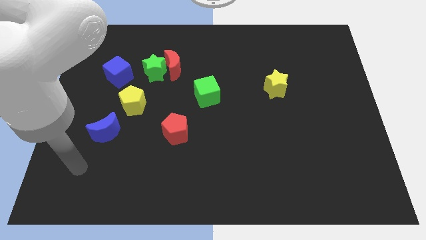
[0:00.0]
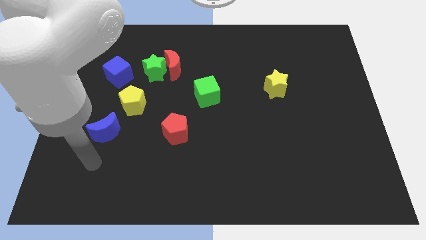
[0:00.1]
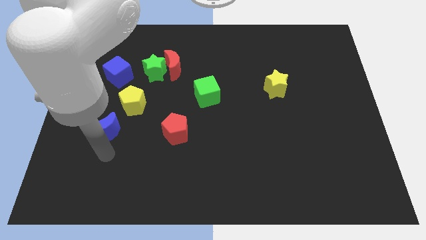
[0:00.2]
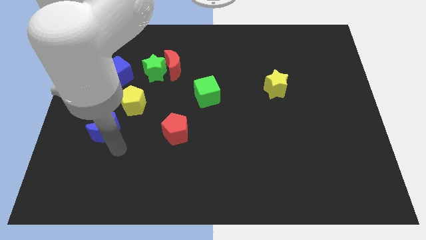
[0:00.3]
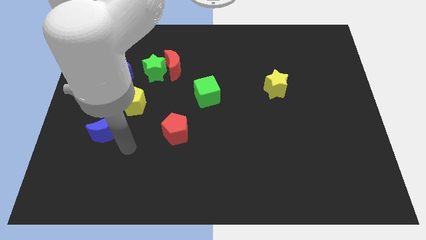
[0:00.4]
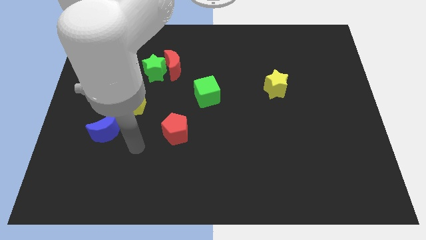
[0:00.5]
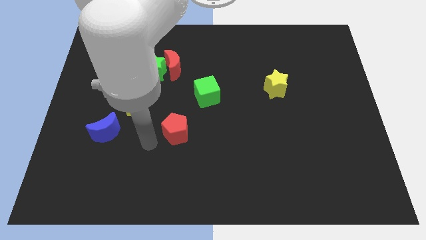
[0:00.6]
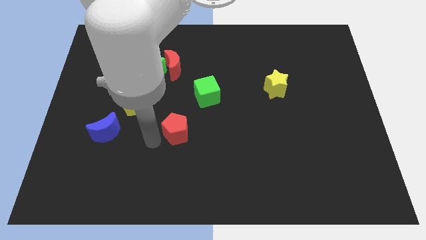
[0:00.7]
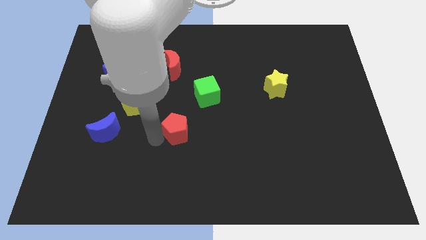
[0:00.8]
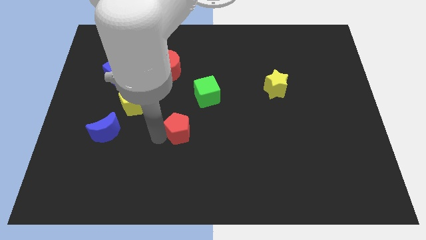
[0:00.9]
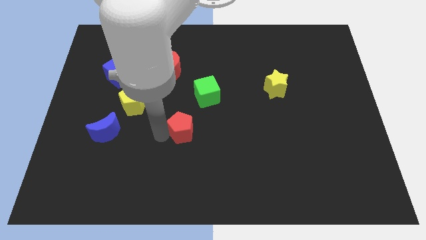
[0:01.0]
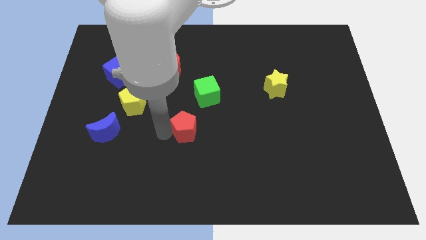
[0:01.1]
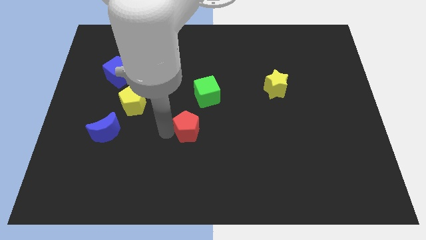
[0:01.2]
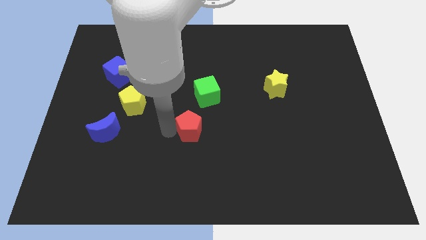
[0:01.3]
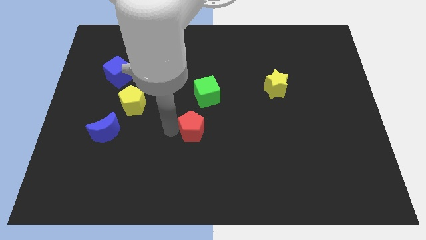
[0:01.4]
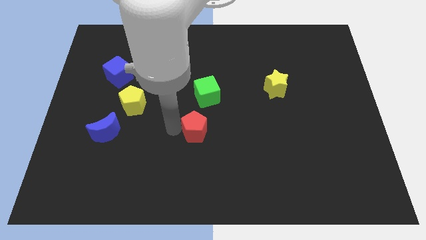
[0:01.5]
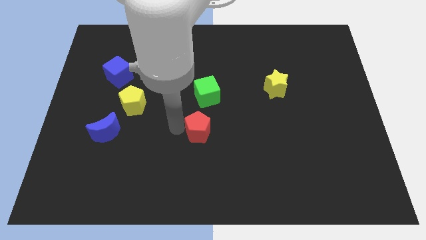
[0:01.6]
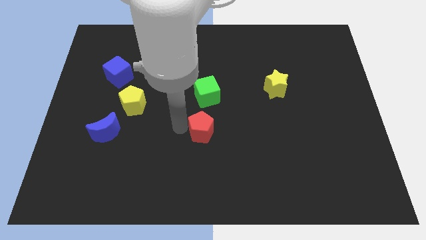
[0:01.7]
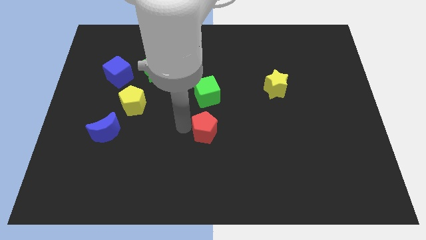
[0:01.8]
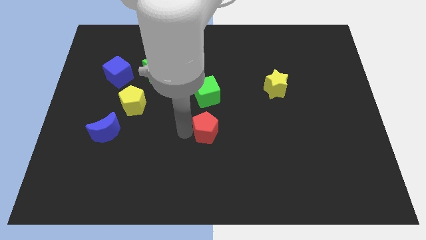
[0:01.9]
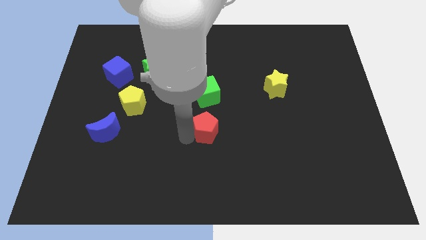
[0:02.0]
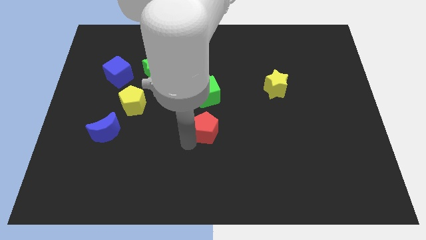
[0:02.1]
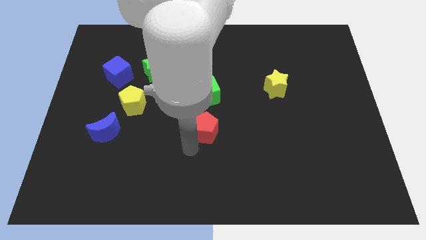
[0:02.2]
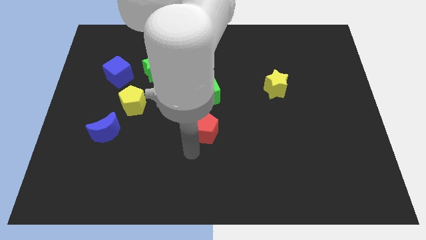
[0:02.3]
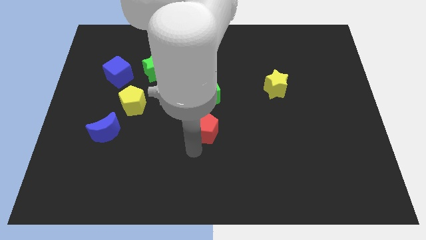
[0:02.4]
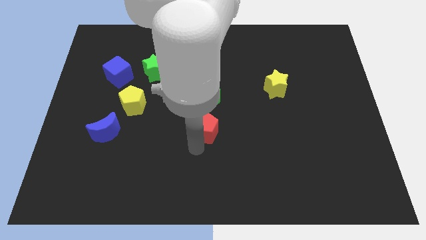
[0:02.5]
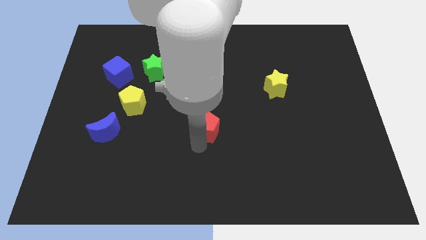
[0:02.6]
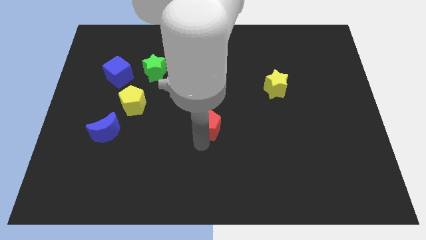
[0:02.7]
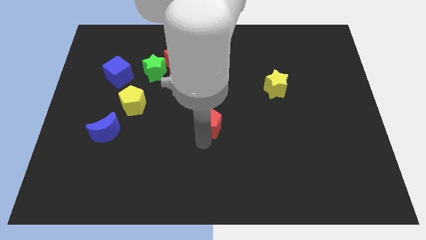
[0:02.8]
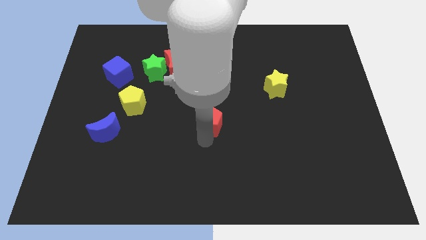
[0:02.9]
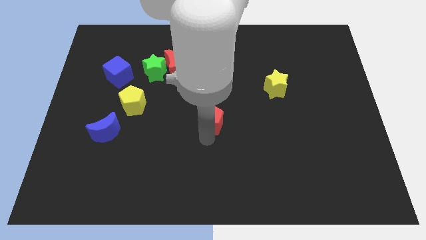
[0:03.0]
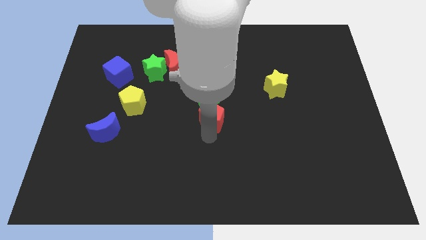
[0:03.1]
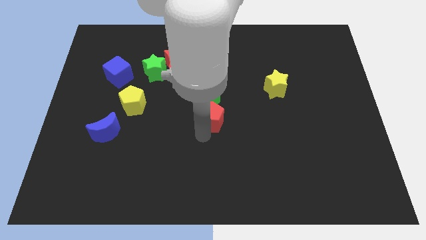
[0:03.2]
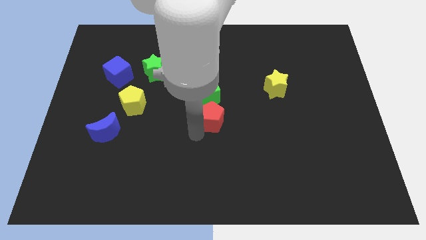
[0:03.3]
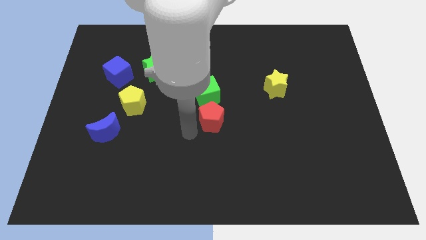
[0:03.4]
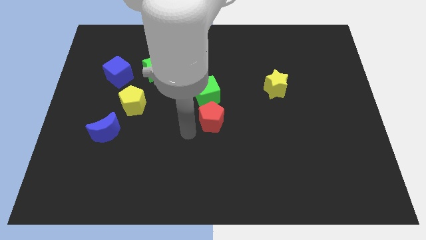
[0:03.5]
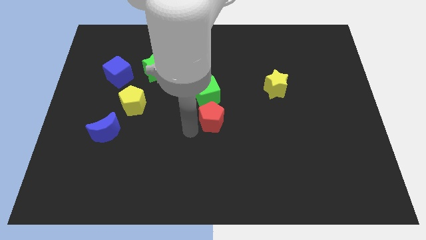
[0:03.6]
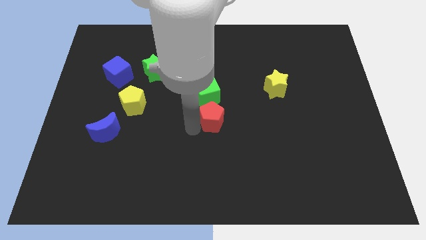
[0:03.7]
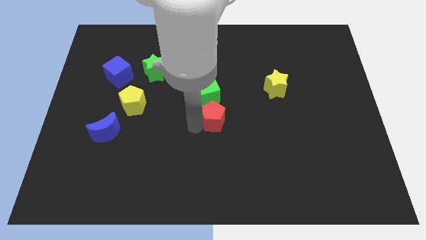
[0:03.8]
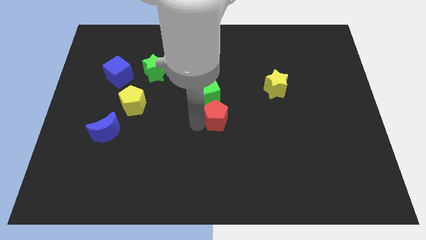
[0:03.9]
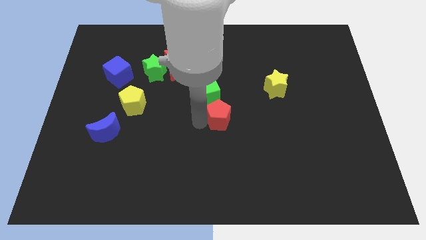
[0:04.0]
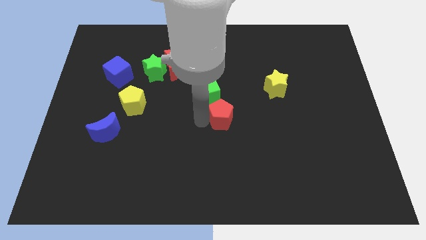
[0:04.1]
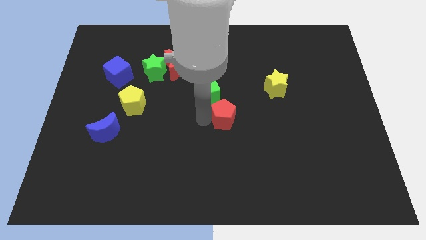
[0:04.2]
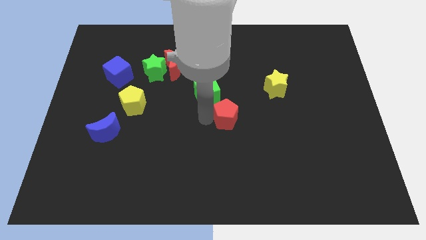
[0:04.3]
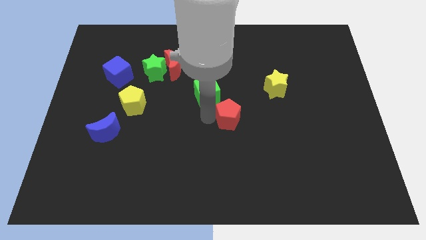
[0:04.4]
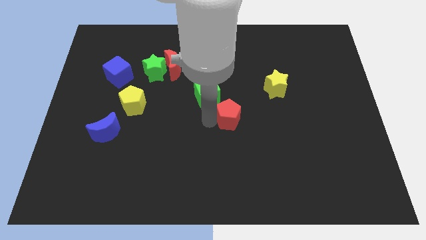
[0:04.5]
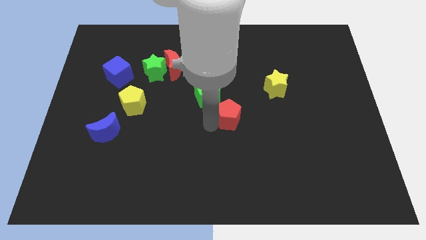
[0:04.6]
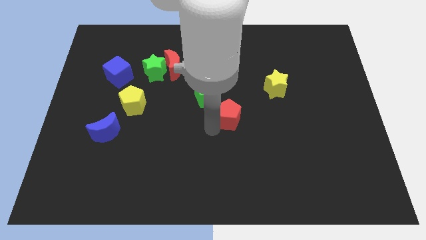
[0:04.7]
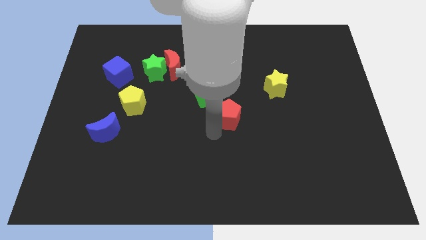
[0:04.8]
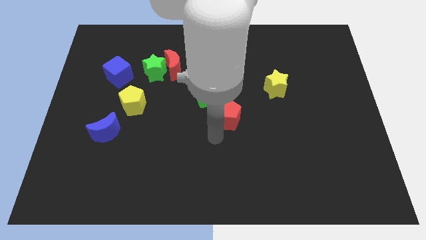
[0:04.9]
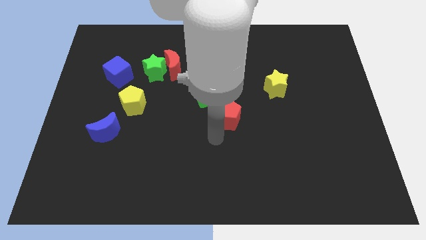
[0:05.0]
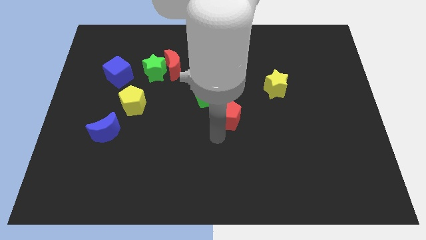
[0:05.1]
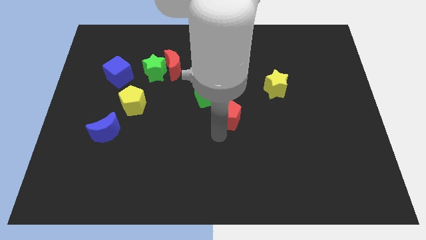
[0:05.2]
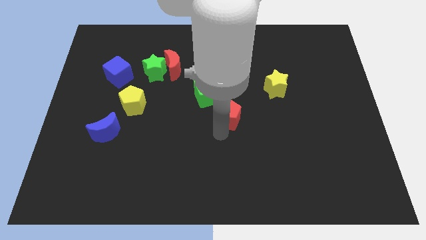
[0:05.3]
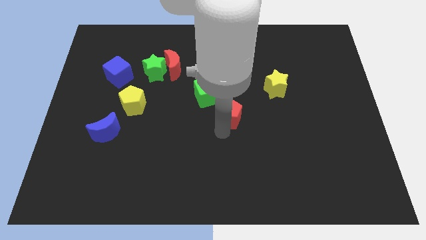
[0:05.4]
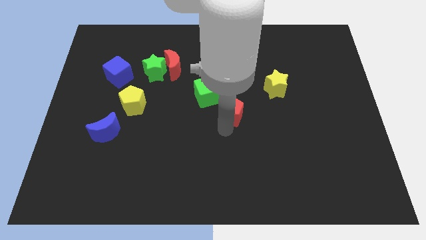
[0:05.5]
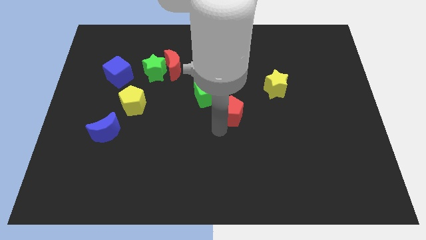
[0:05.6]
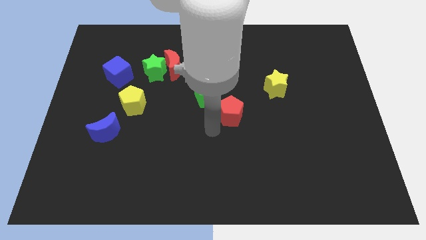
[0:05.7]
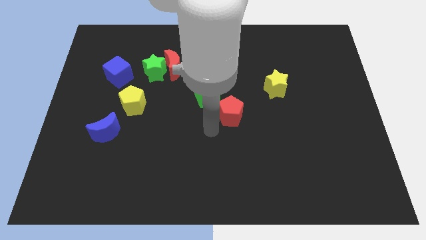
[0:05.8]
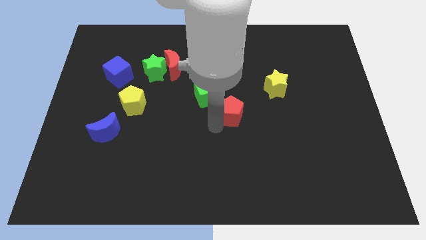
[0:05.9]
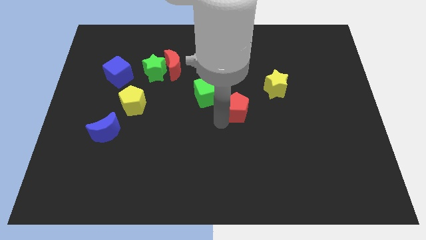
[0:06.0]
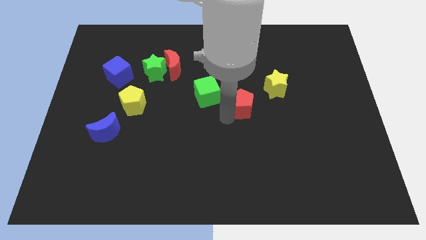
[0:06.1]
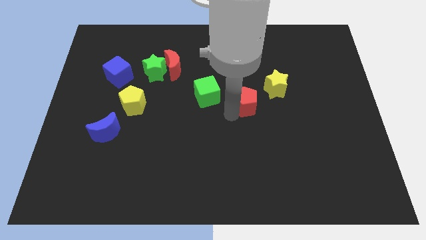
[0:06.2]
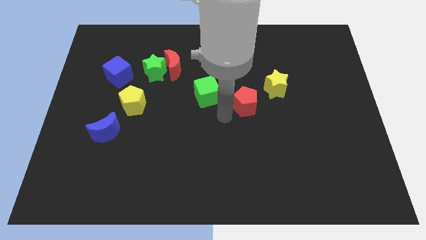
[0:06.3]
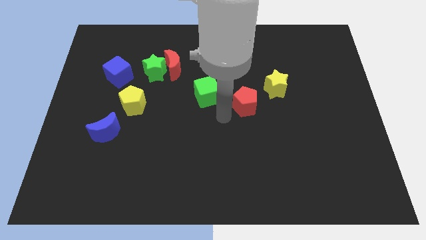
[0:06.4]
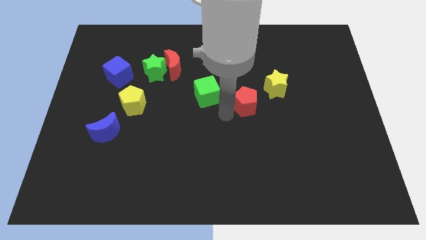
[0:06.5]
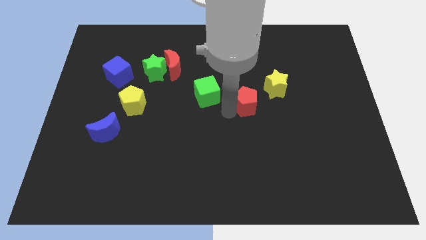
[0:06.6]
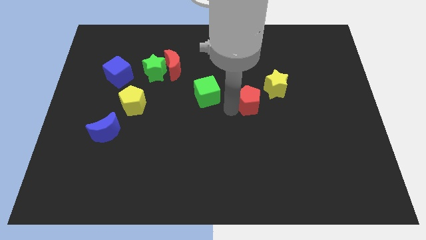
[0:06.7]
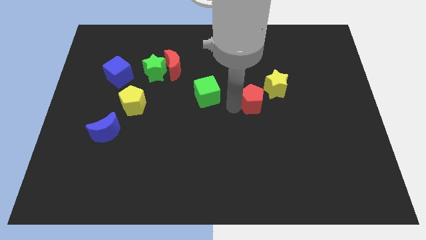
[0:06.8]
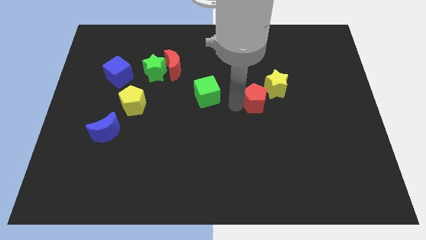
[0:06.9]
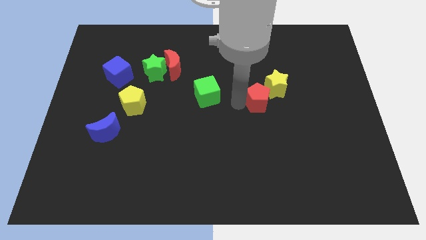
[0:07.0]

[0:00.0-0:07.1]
put the red pentagon close to the yellow star
